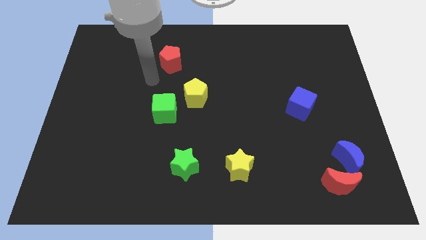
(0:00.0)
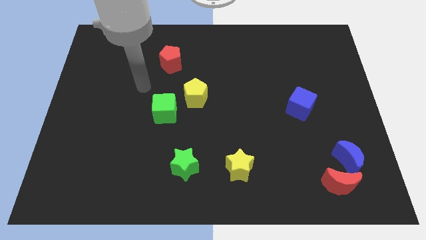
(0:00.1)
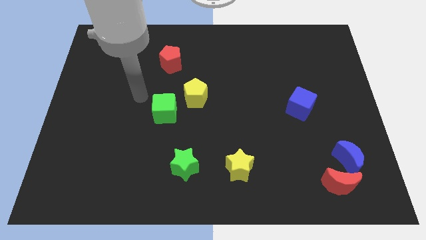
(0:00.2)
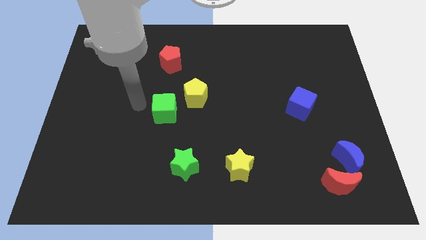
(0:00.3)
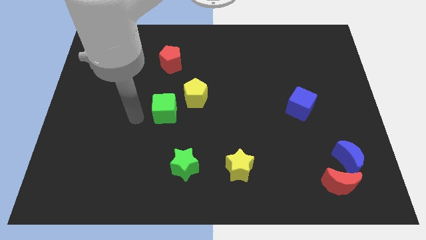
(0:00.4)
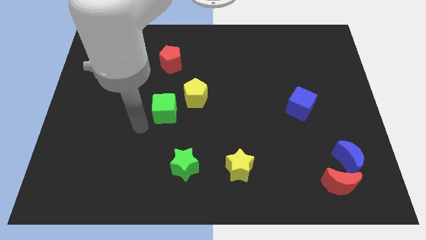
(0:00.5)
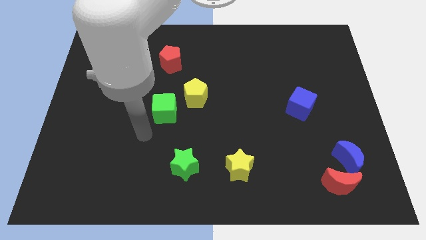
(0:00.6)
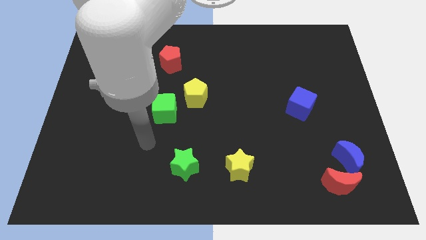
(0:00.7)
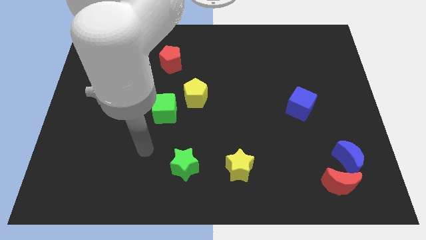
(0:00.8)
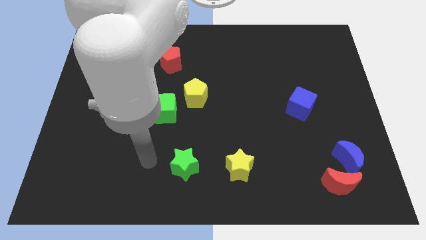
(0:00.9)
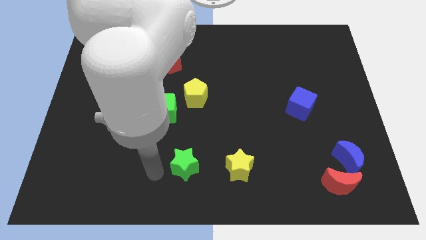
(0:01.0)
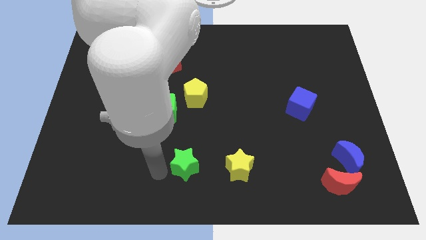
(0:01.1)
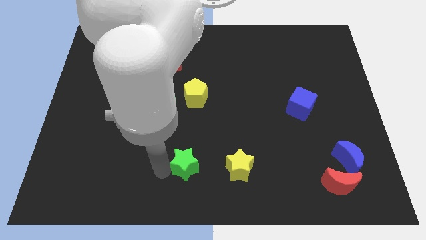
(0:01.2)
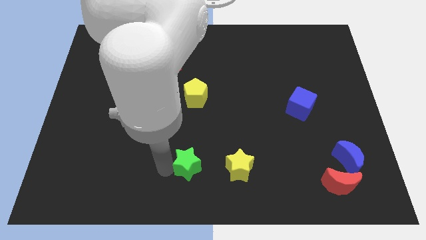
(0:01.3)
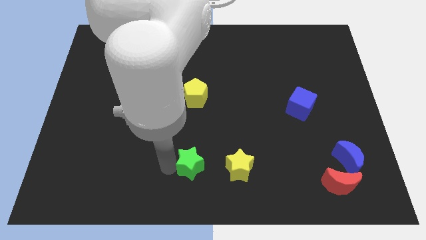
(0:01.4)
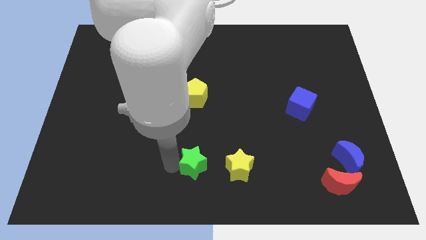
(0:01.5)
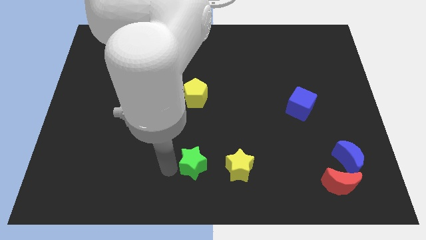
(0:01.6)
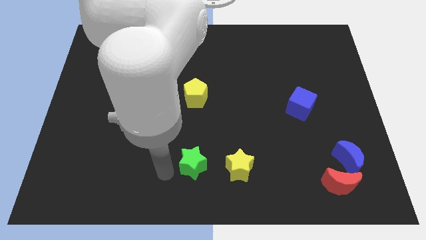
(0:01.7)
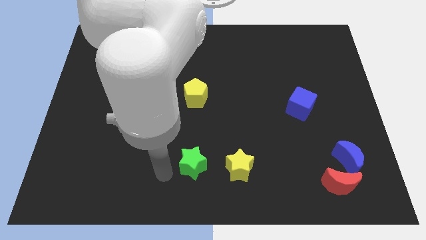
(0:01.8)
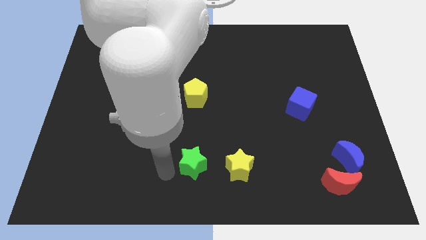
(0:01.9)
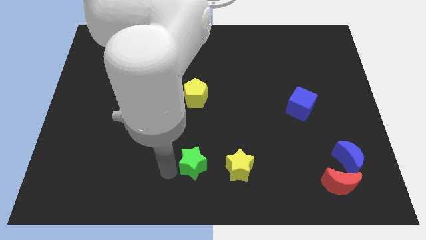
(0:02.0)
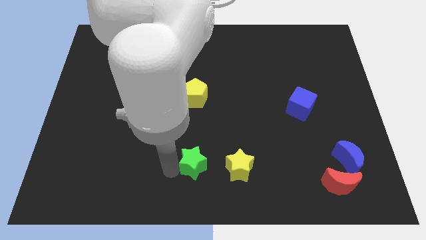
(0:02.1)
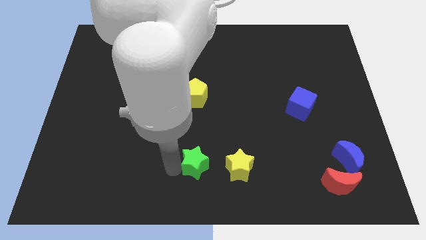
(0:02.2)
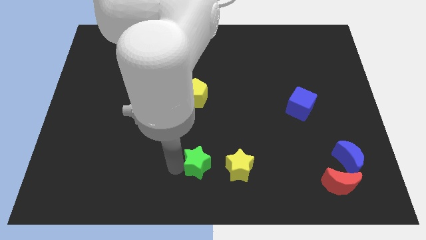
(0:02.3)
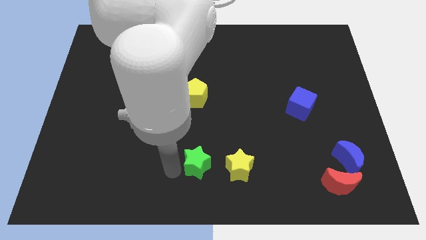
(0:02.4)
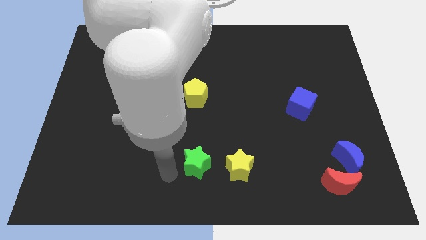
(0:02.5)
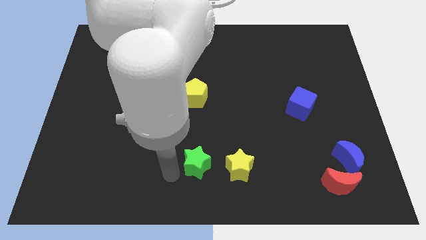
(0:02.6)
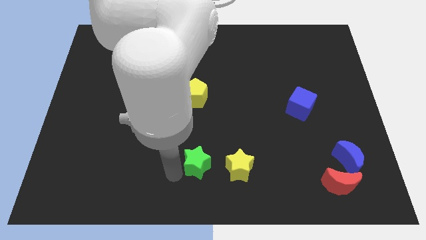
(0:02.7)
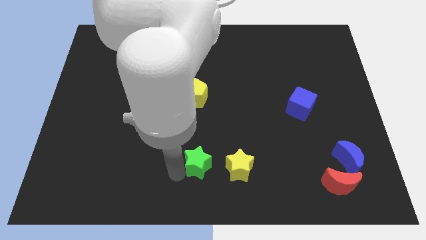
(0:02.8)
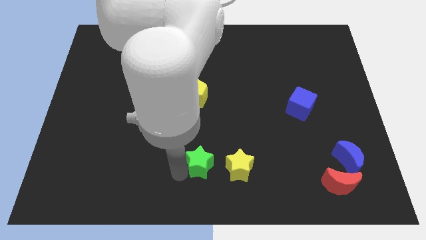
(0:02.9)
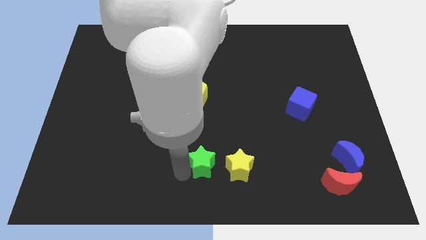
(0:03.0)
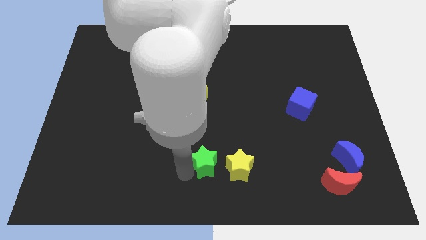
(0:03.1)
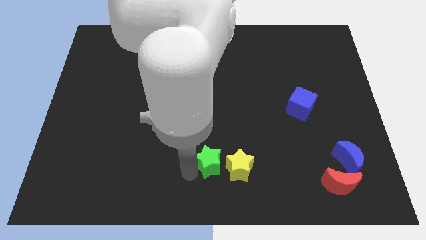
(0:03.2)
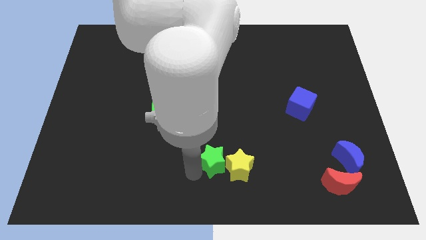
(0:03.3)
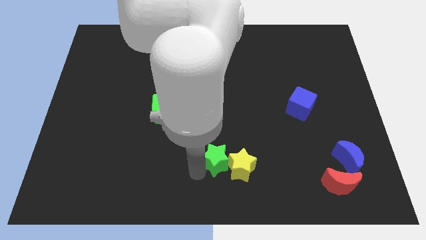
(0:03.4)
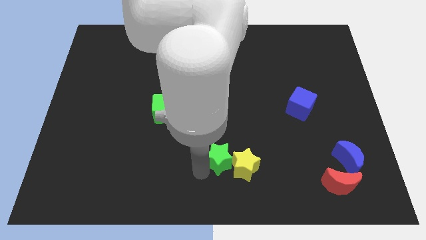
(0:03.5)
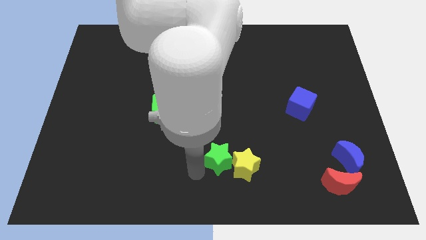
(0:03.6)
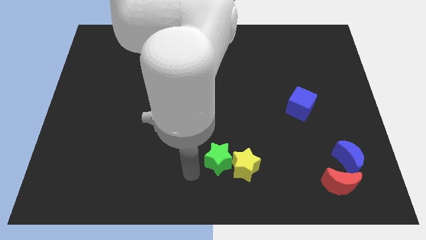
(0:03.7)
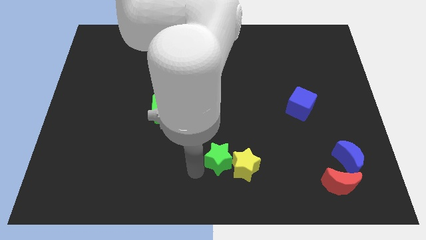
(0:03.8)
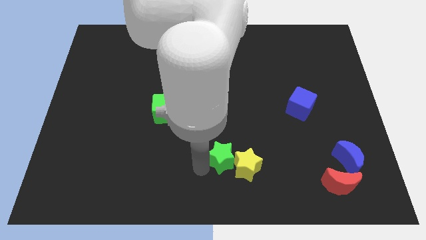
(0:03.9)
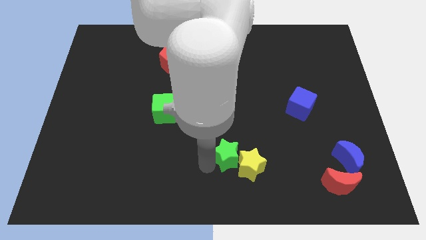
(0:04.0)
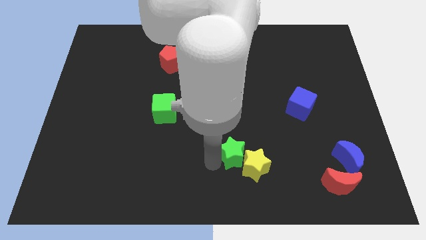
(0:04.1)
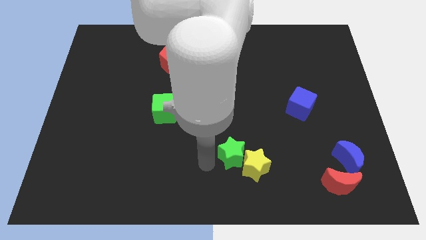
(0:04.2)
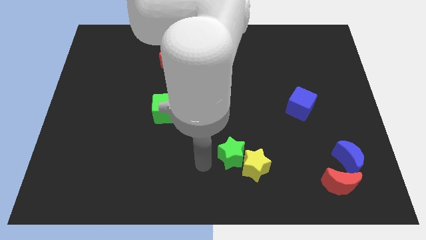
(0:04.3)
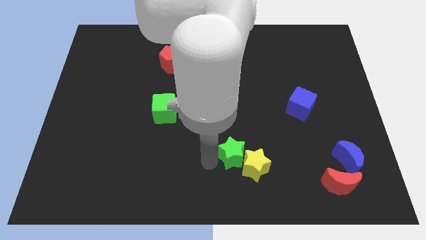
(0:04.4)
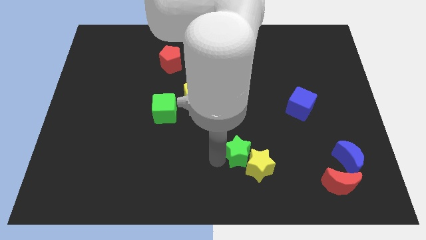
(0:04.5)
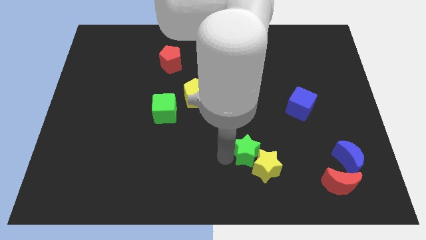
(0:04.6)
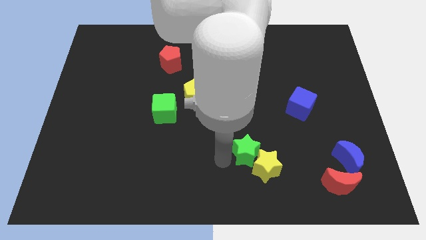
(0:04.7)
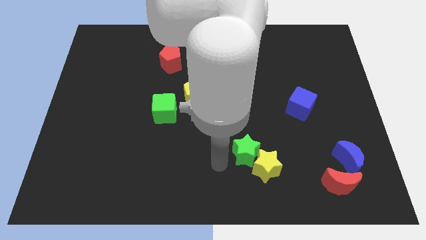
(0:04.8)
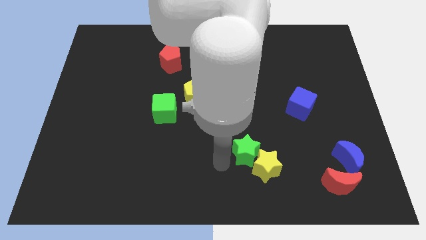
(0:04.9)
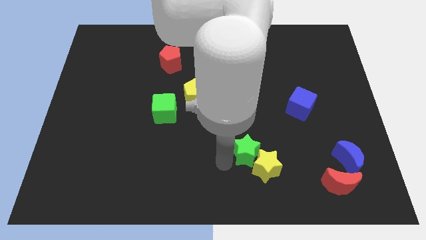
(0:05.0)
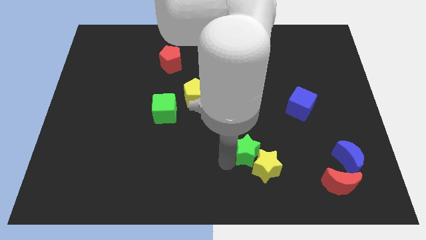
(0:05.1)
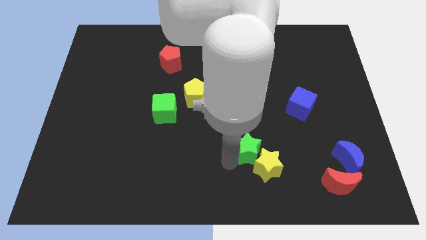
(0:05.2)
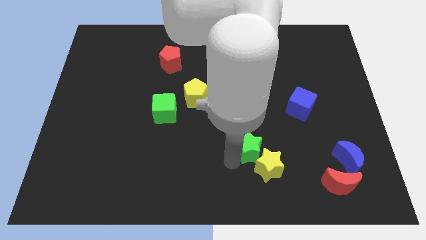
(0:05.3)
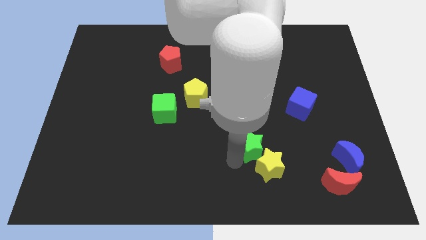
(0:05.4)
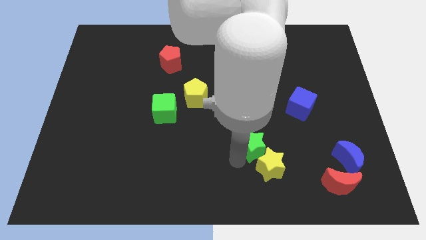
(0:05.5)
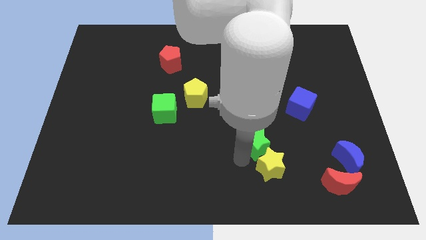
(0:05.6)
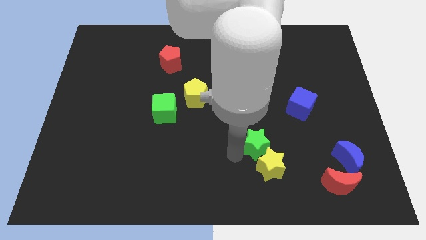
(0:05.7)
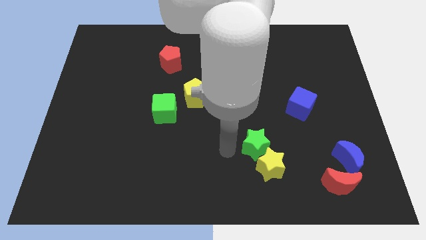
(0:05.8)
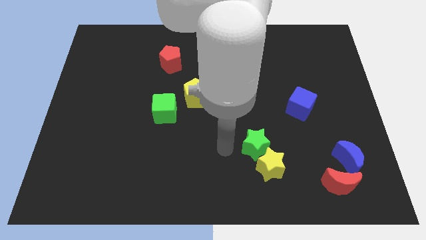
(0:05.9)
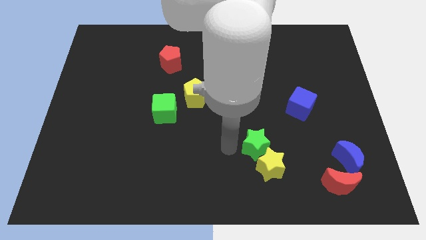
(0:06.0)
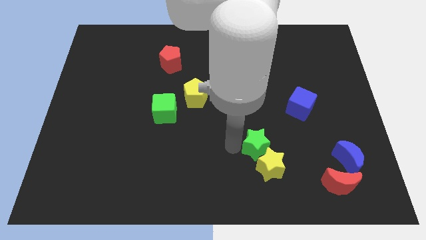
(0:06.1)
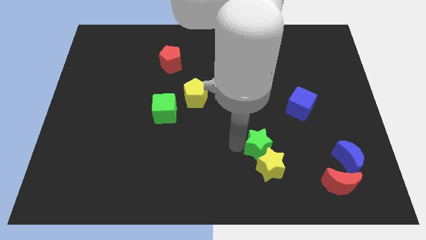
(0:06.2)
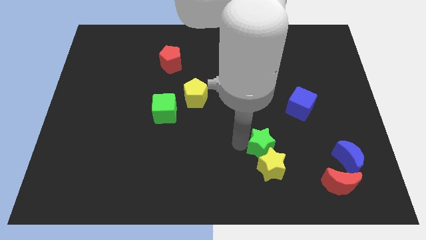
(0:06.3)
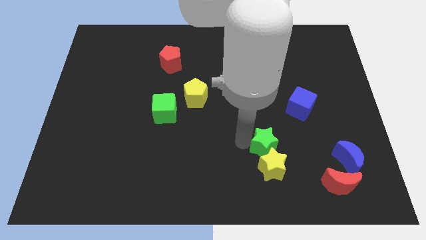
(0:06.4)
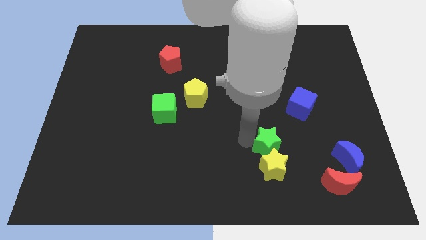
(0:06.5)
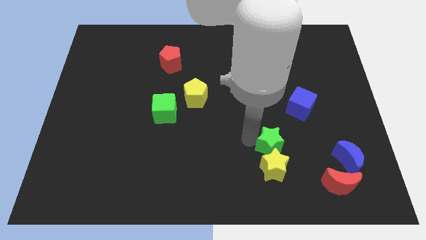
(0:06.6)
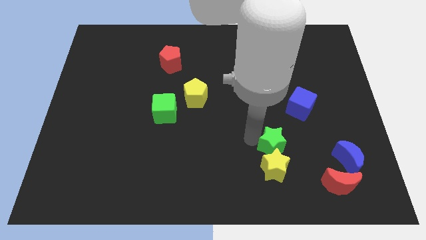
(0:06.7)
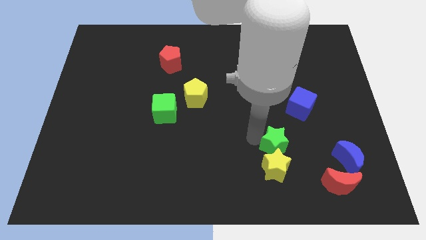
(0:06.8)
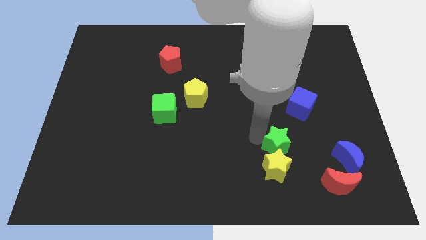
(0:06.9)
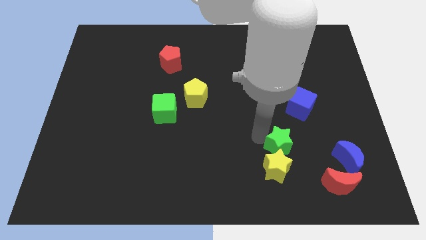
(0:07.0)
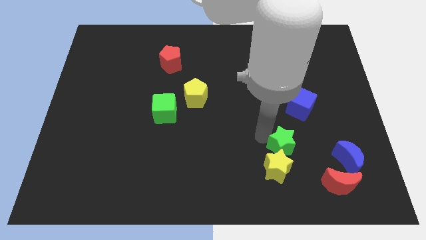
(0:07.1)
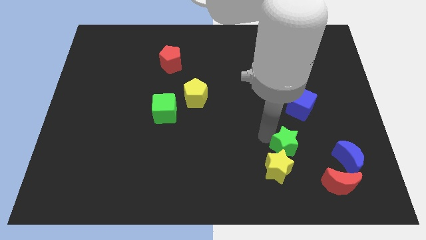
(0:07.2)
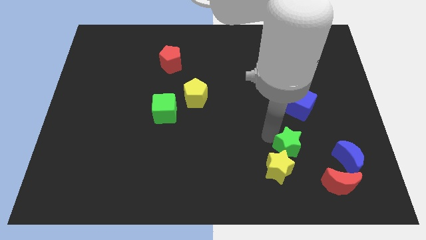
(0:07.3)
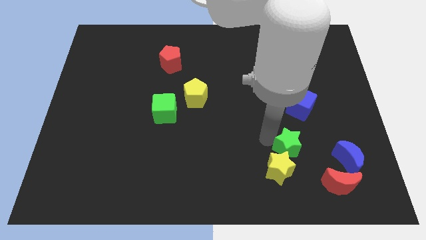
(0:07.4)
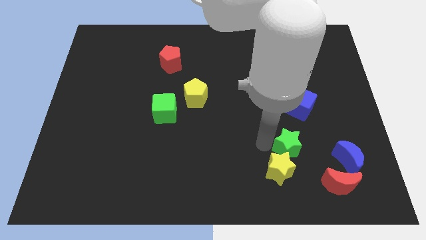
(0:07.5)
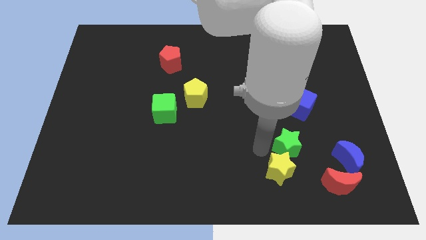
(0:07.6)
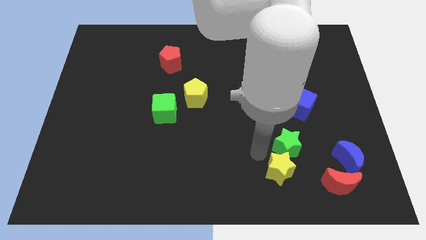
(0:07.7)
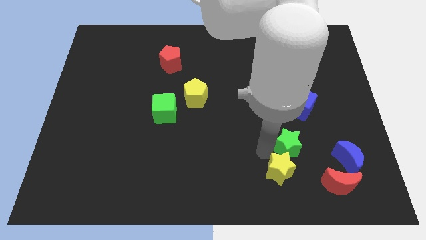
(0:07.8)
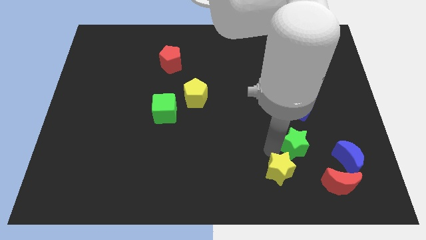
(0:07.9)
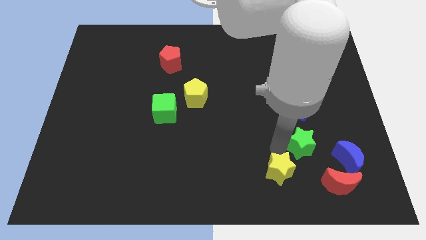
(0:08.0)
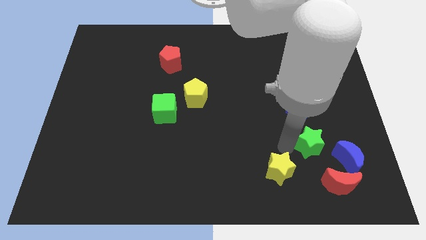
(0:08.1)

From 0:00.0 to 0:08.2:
push the green star above the red moon
